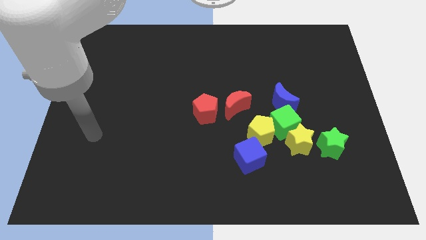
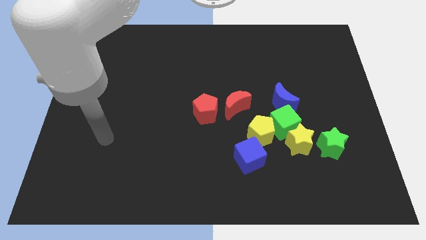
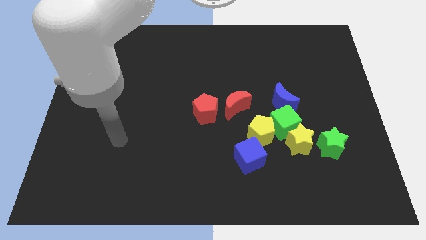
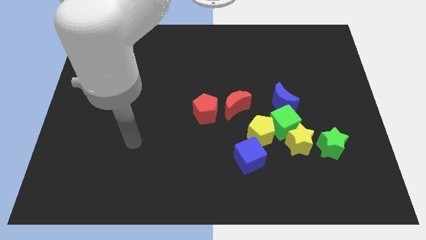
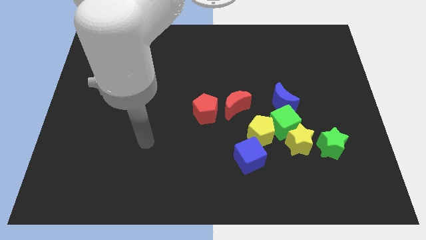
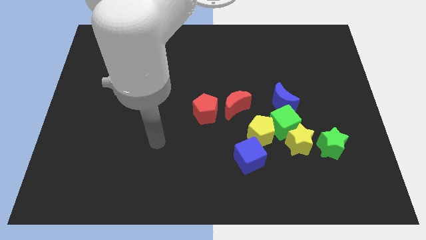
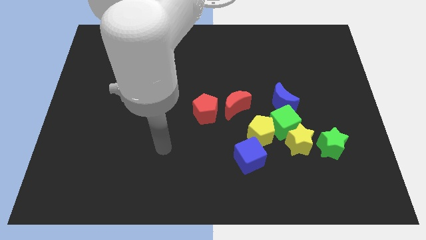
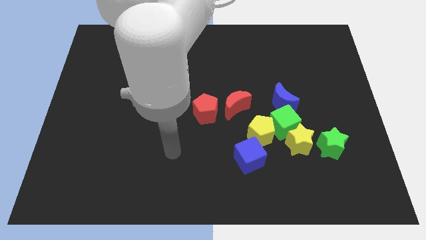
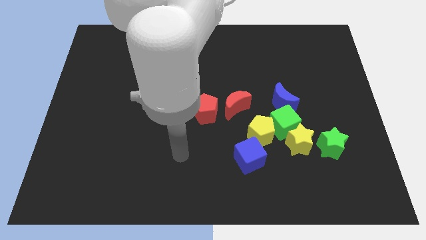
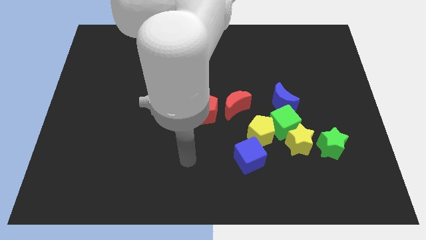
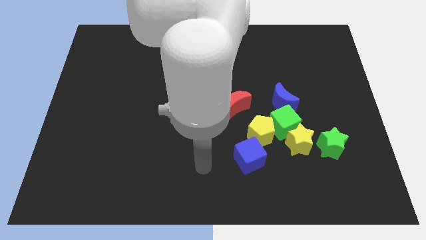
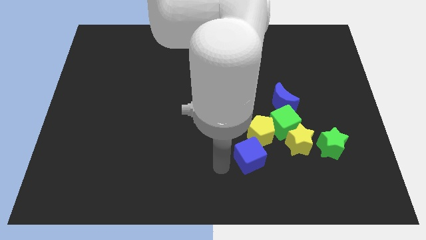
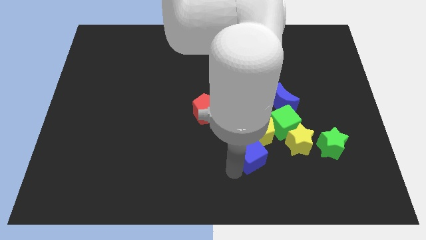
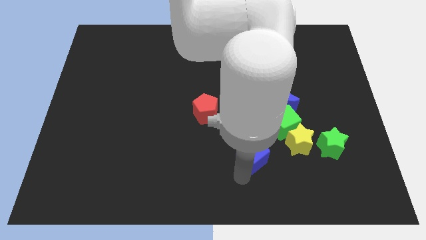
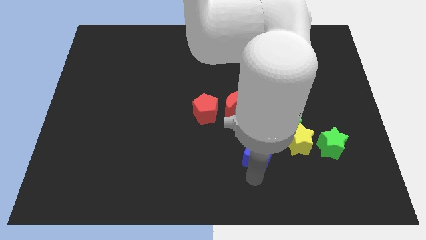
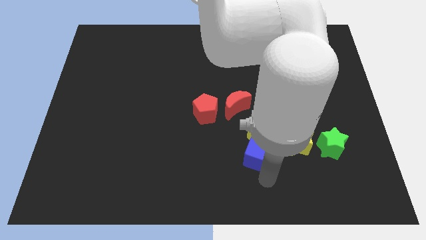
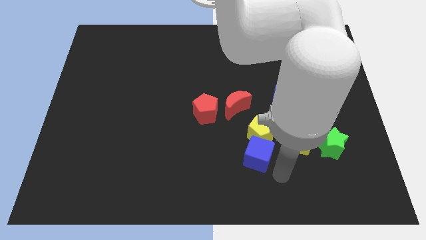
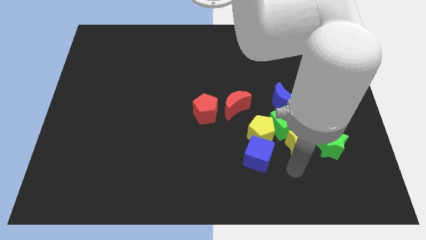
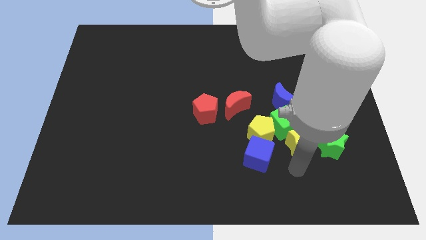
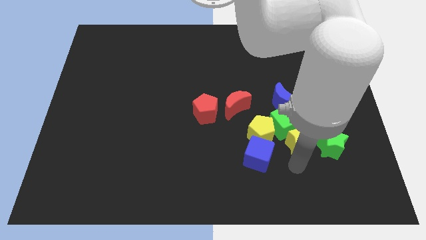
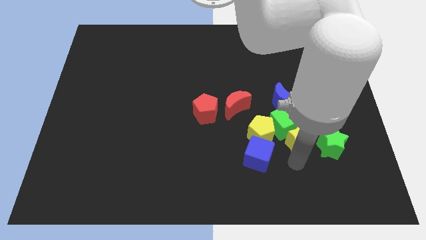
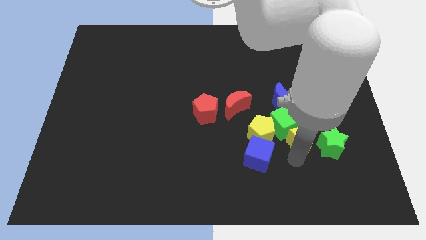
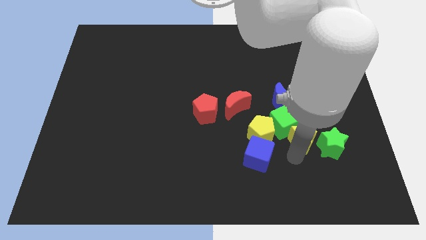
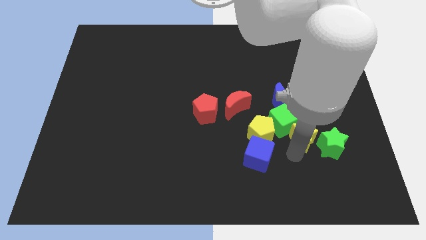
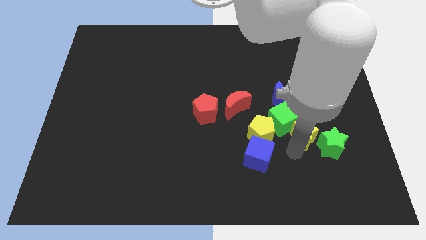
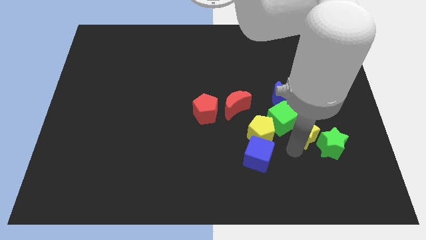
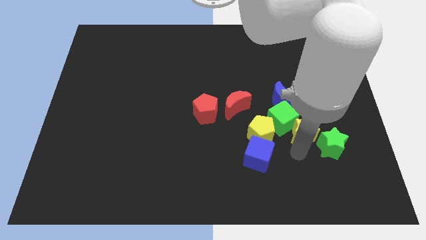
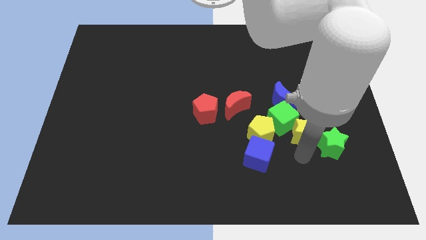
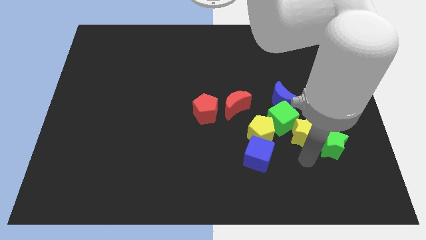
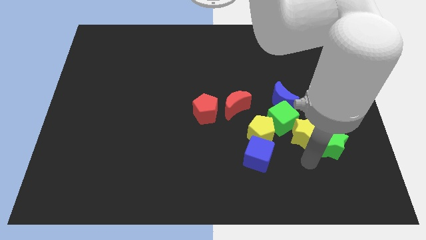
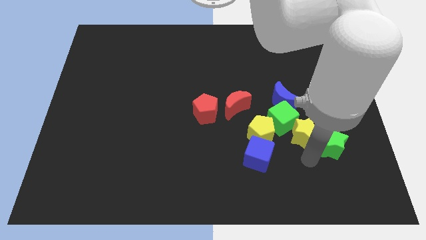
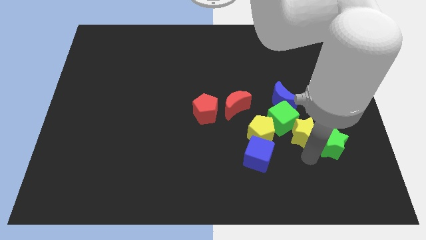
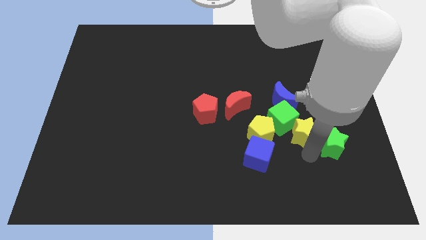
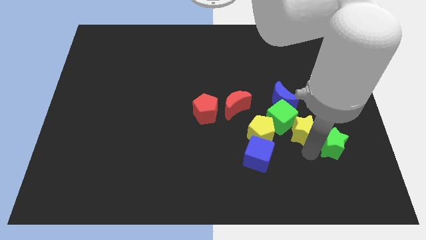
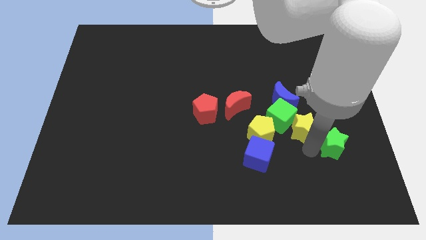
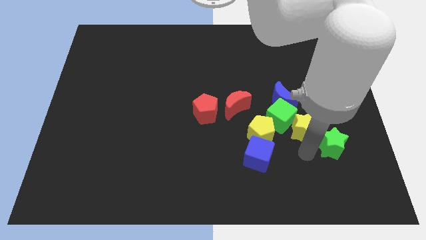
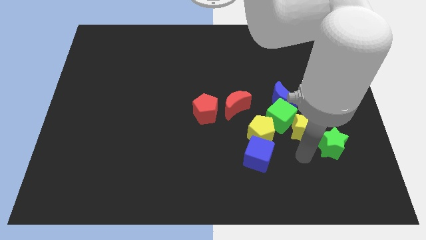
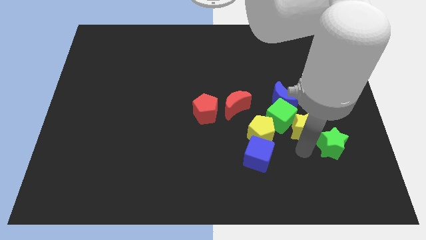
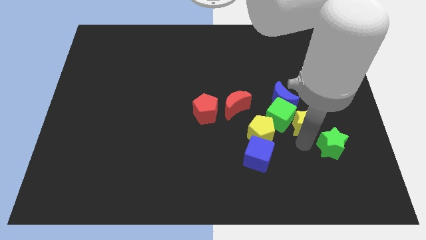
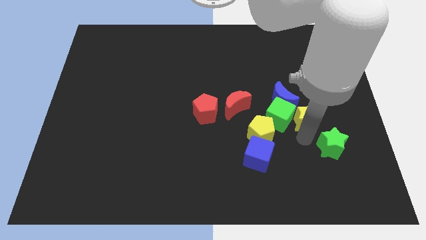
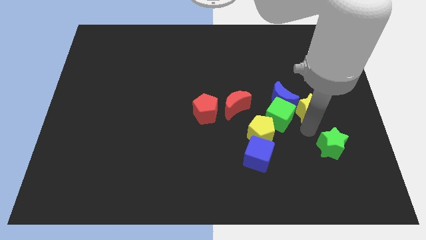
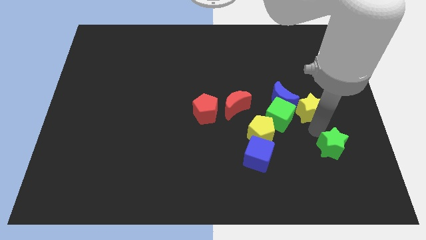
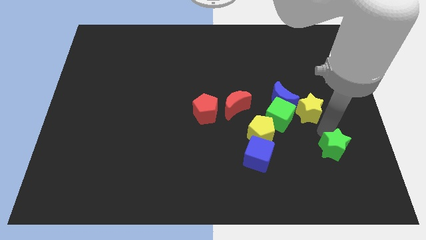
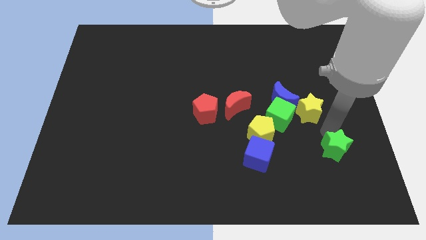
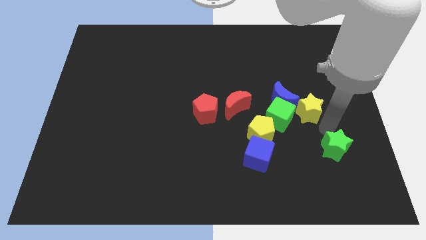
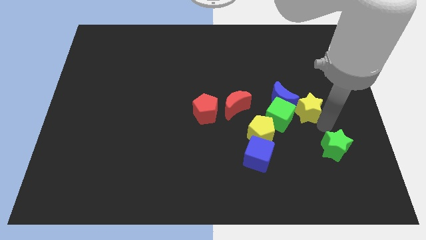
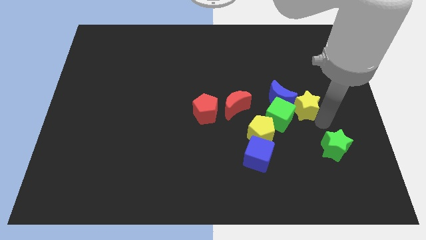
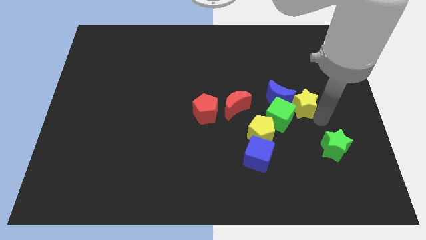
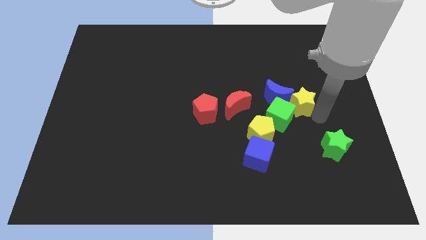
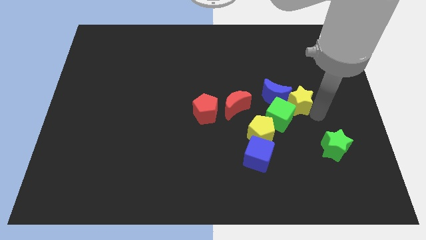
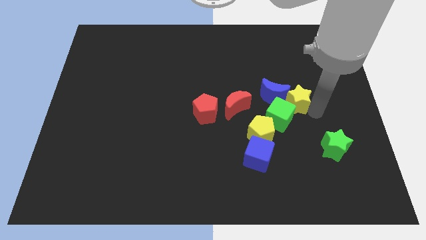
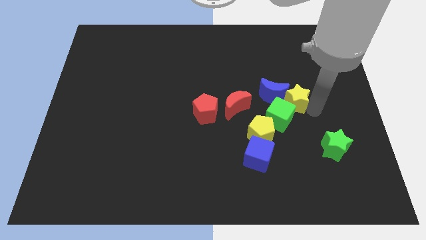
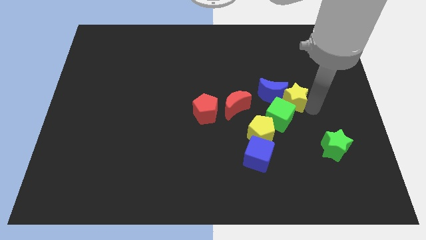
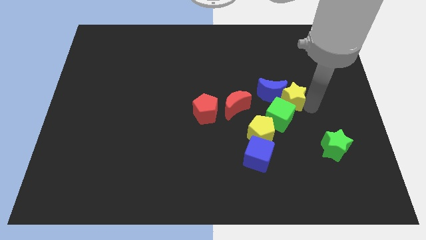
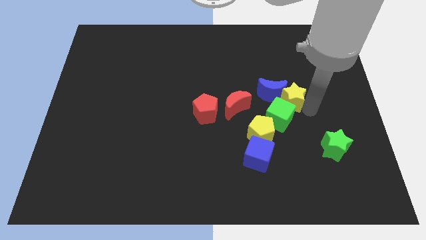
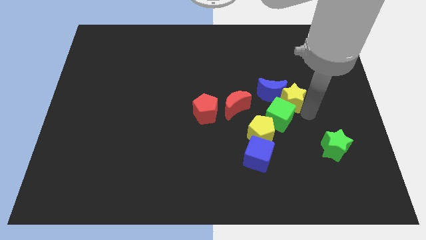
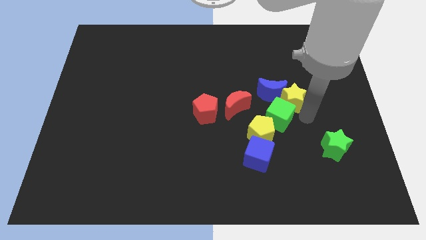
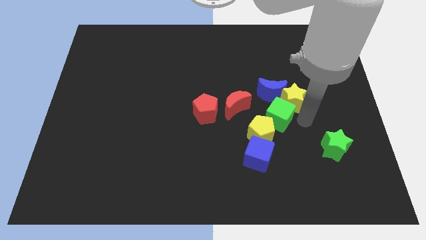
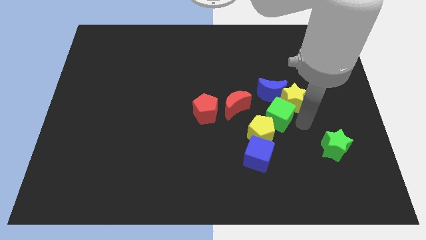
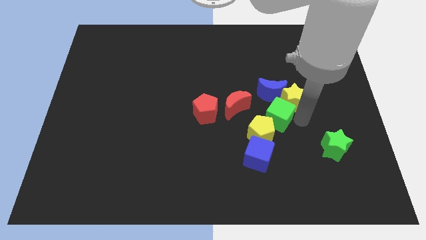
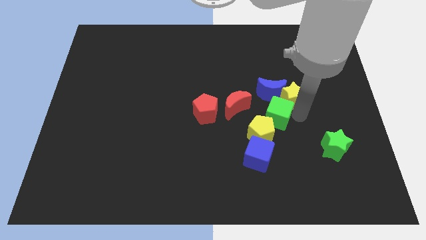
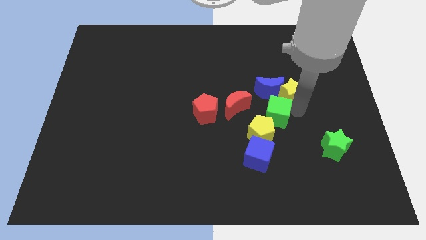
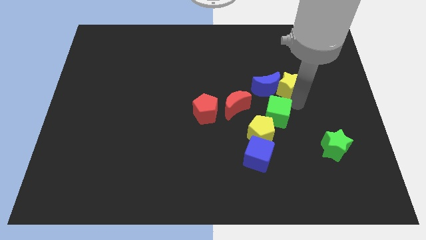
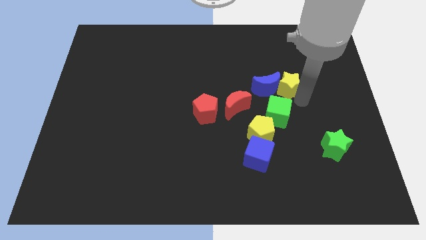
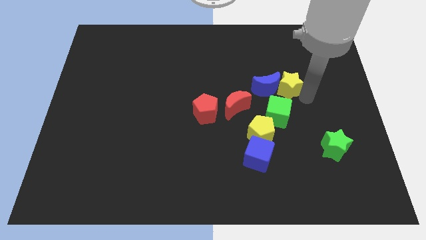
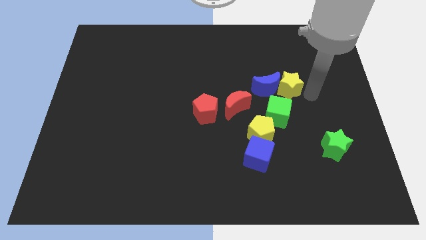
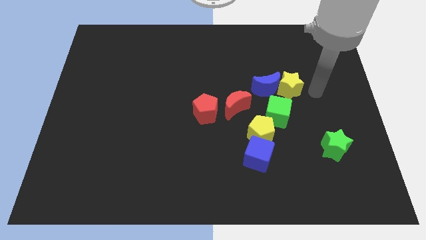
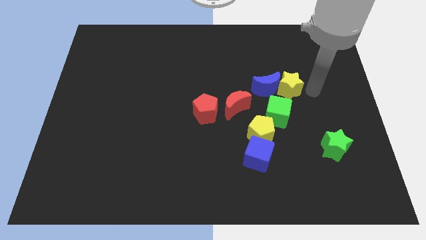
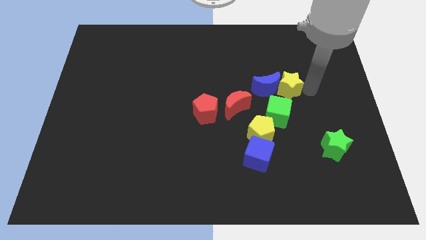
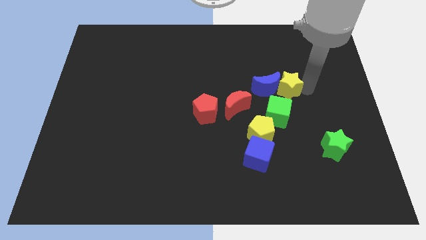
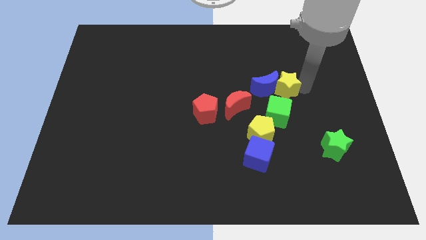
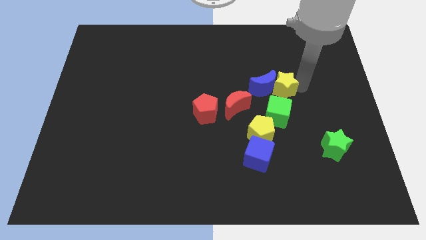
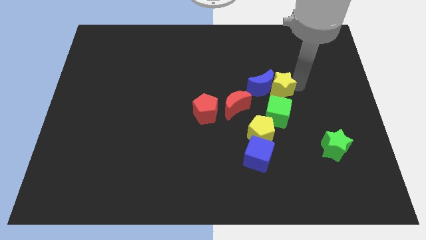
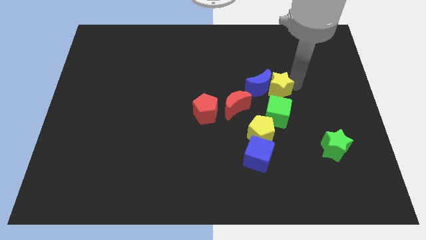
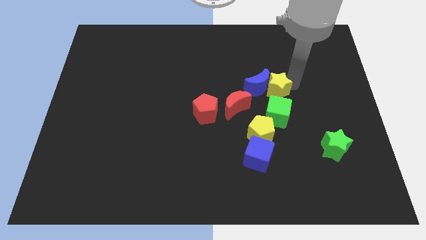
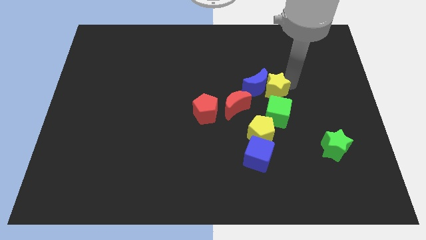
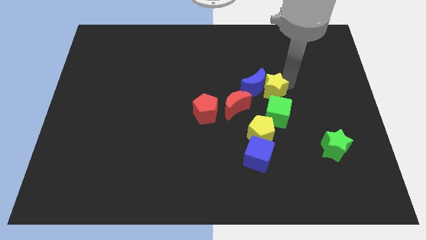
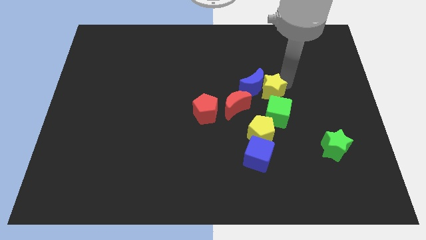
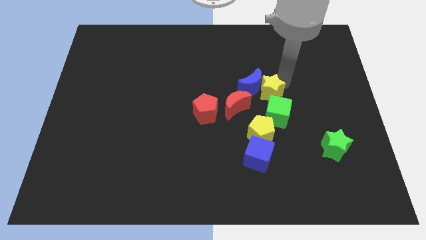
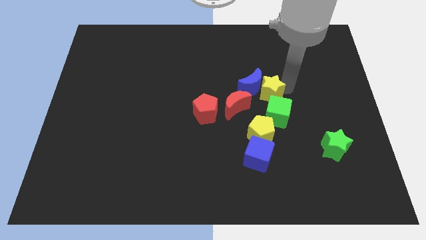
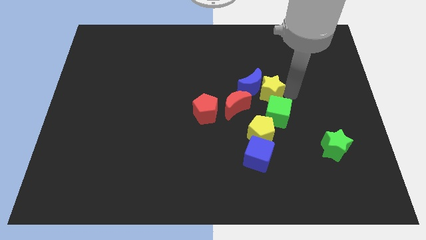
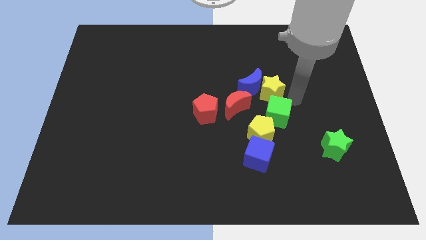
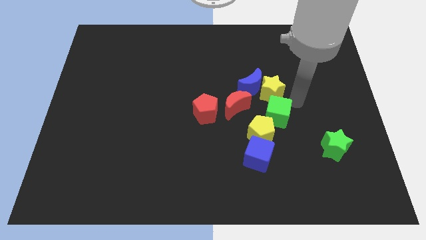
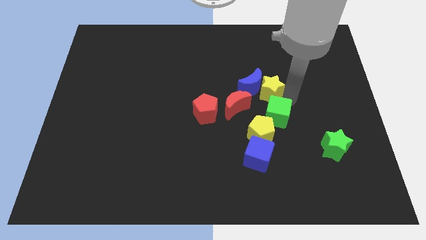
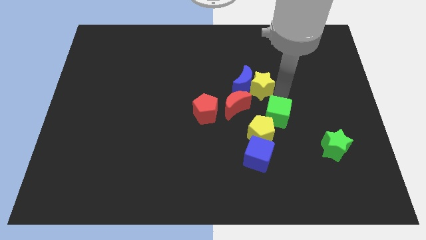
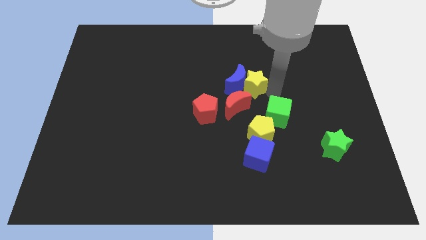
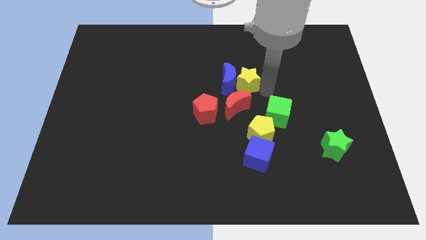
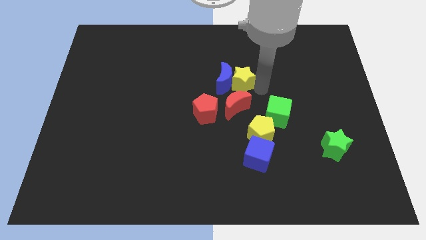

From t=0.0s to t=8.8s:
slide the yellow star upwards and left diagonally
